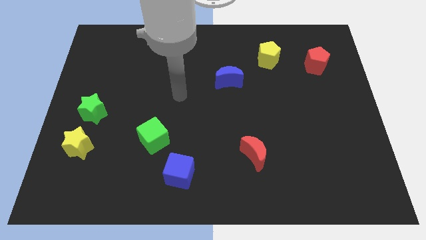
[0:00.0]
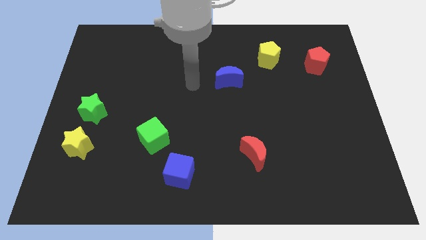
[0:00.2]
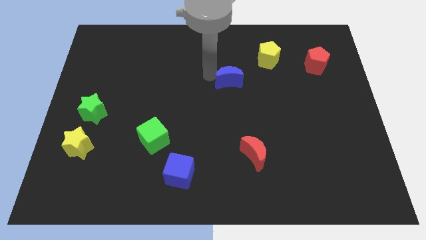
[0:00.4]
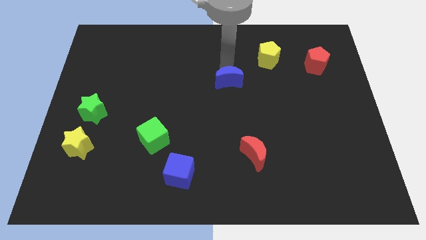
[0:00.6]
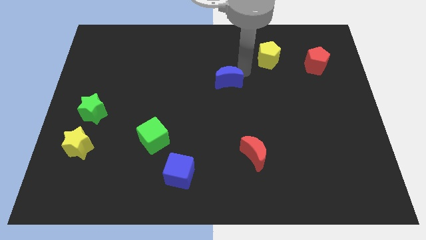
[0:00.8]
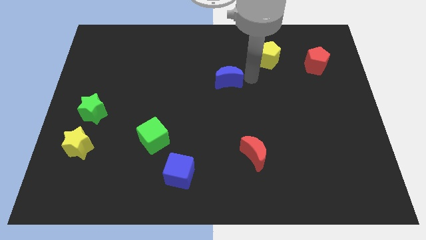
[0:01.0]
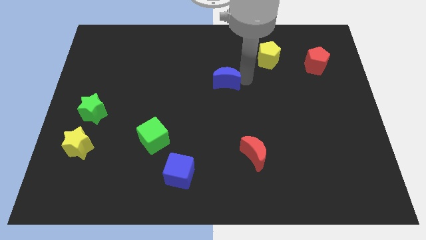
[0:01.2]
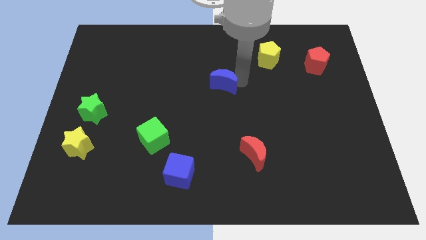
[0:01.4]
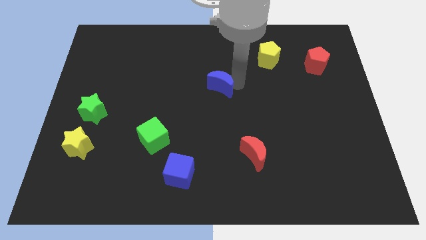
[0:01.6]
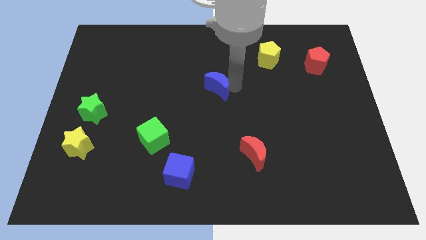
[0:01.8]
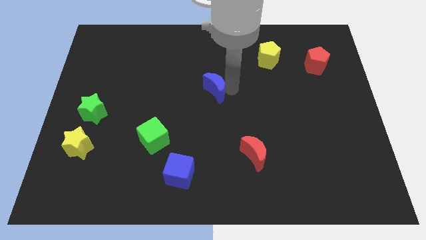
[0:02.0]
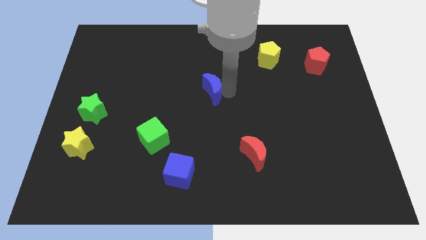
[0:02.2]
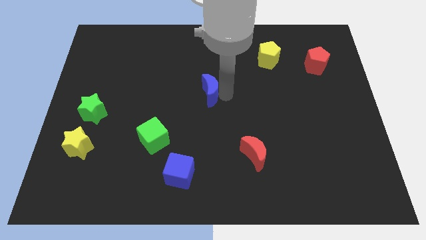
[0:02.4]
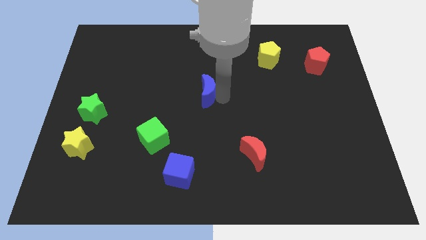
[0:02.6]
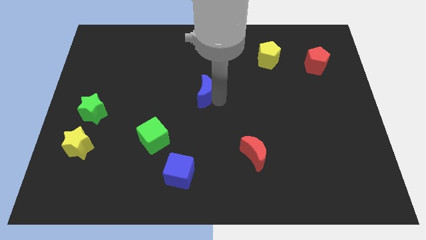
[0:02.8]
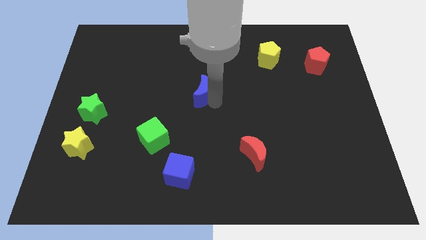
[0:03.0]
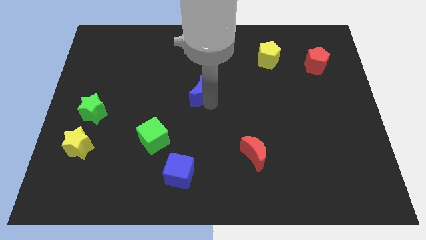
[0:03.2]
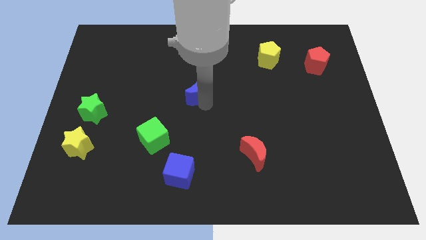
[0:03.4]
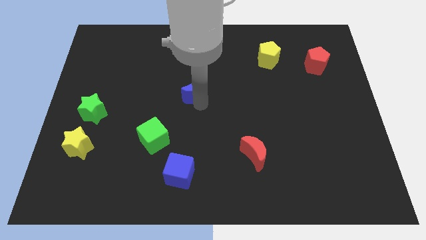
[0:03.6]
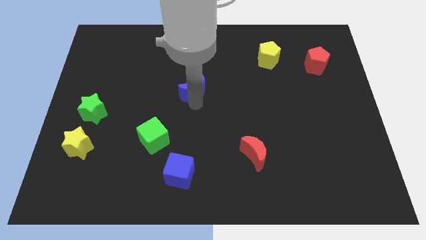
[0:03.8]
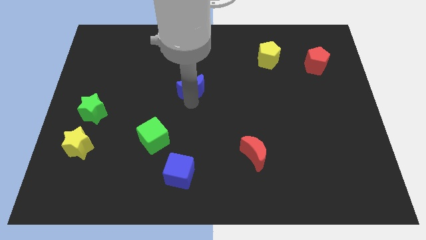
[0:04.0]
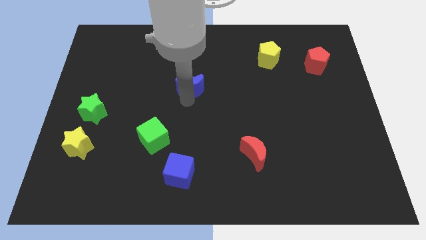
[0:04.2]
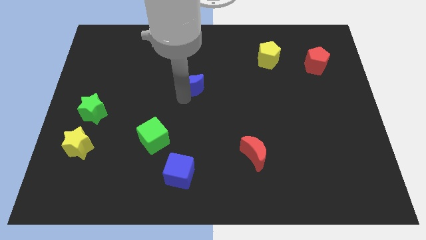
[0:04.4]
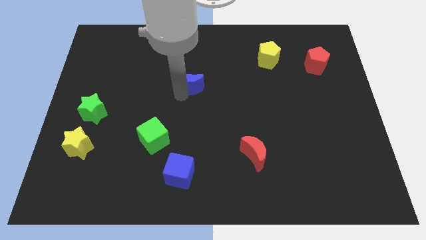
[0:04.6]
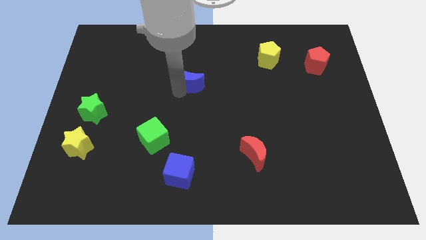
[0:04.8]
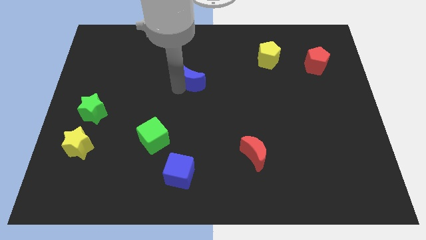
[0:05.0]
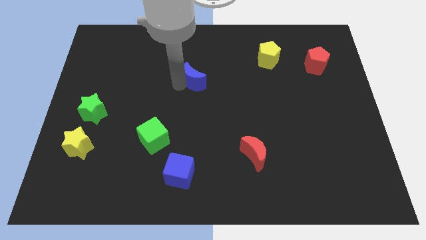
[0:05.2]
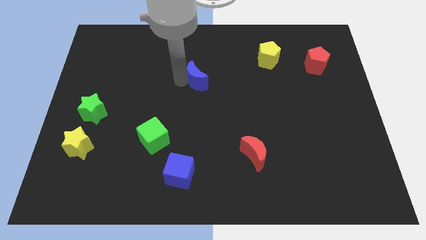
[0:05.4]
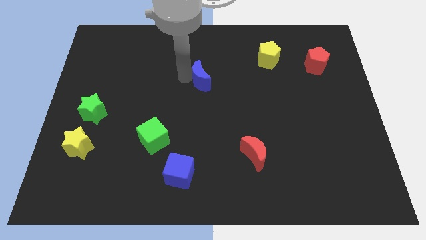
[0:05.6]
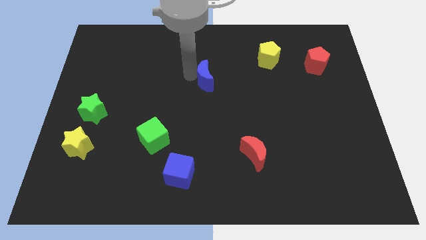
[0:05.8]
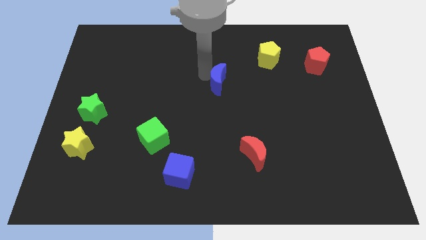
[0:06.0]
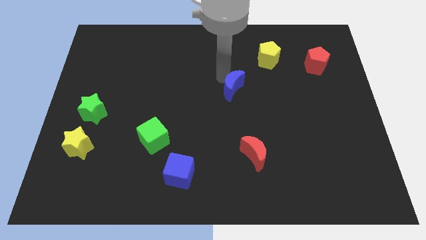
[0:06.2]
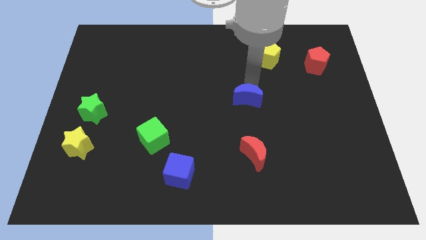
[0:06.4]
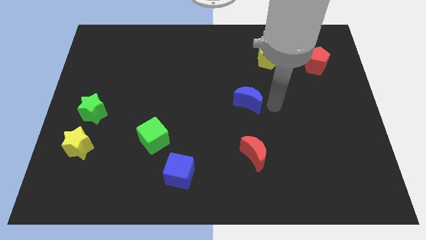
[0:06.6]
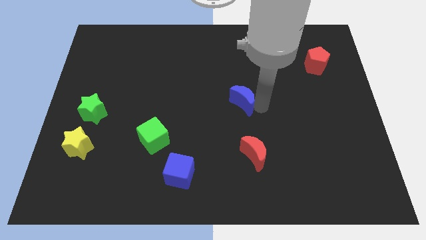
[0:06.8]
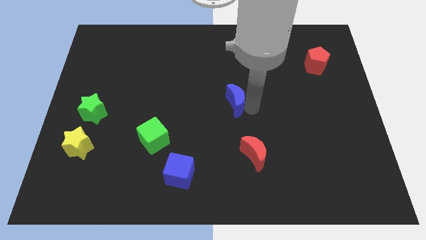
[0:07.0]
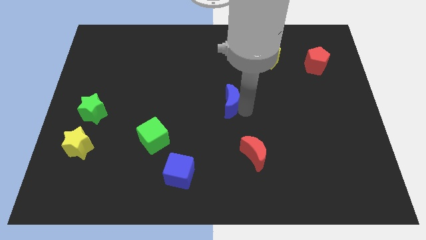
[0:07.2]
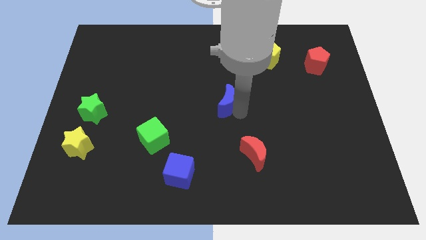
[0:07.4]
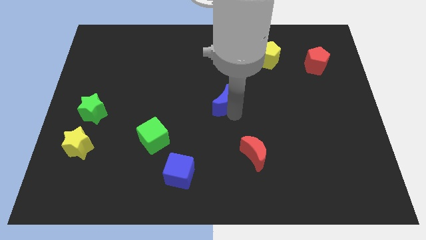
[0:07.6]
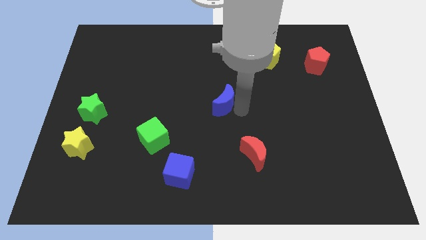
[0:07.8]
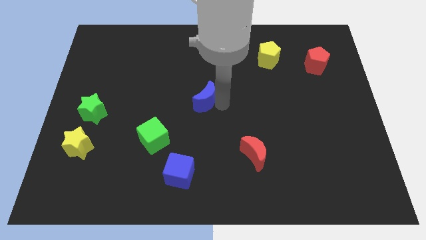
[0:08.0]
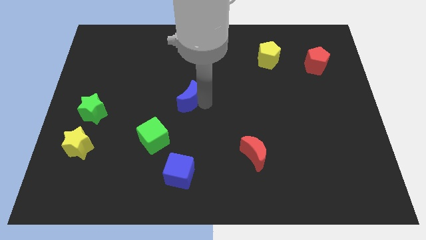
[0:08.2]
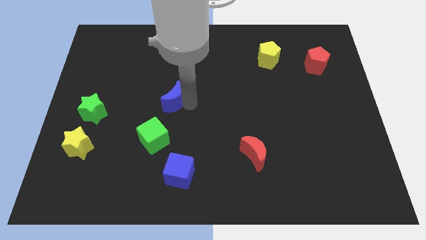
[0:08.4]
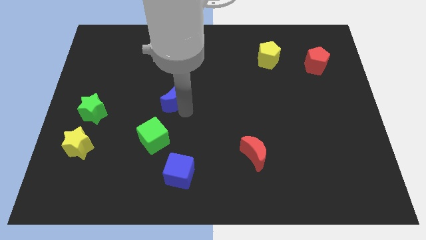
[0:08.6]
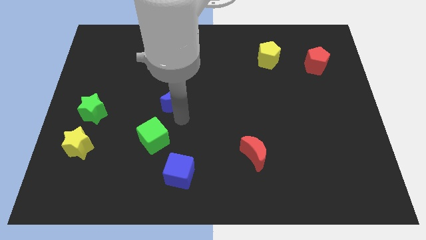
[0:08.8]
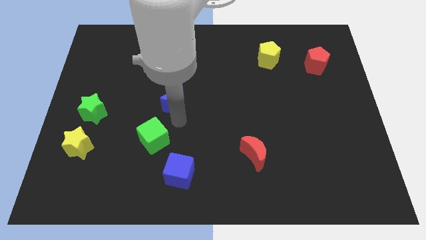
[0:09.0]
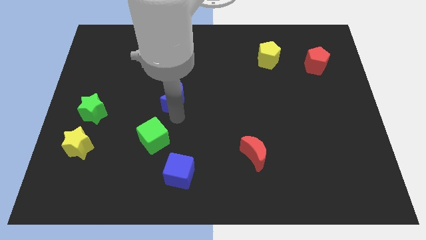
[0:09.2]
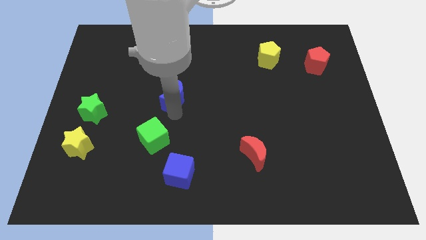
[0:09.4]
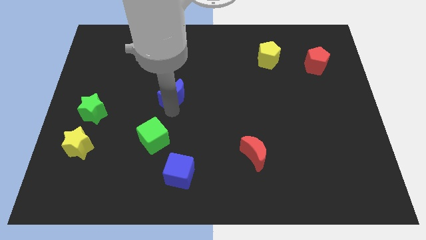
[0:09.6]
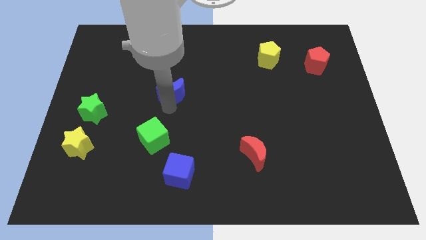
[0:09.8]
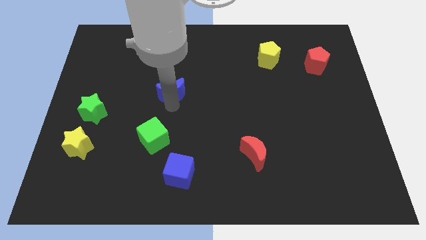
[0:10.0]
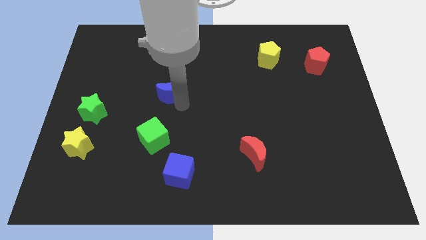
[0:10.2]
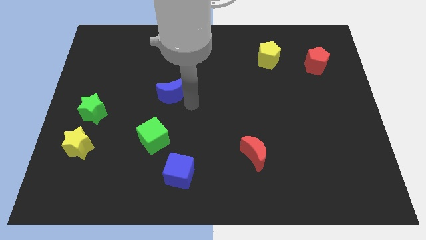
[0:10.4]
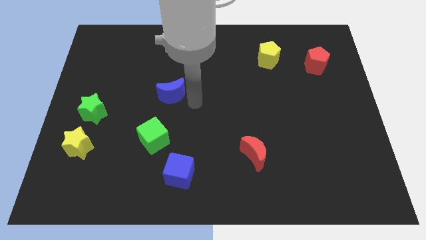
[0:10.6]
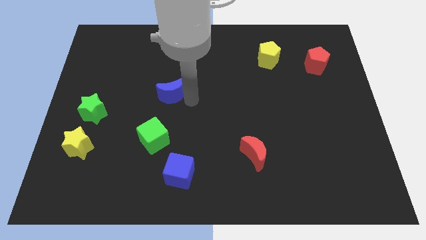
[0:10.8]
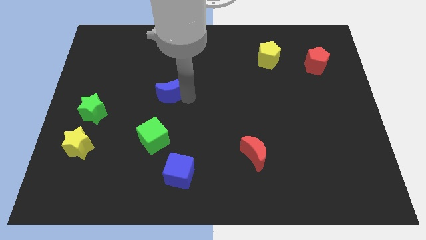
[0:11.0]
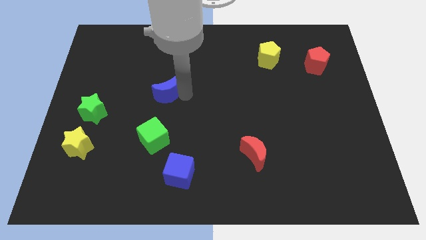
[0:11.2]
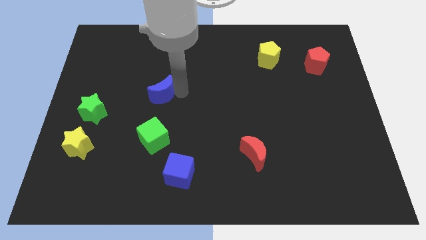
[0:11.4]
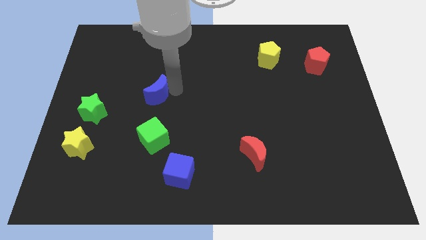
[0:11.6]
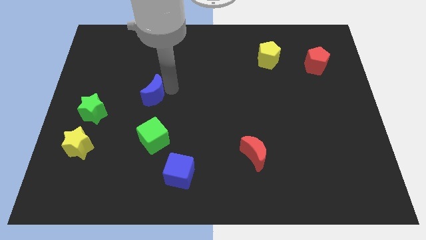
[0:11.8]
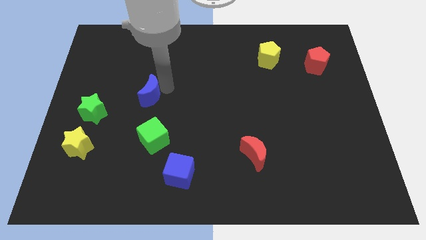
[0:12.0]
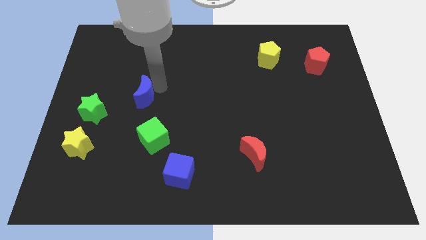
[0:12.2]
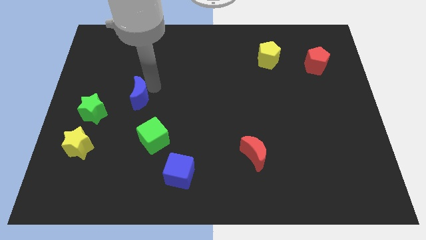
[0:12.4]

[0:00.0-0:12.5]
move the blue moon diagonally up and to the right of the green star

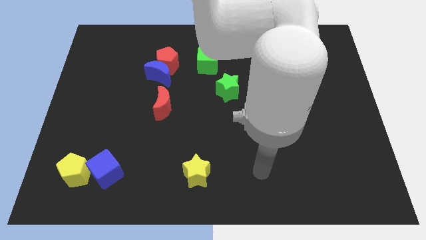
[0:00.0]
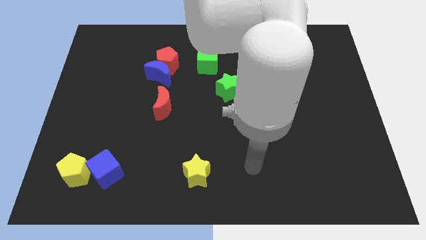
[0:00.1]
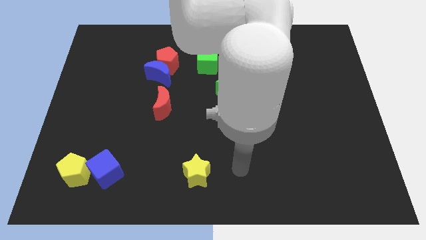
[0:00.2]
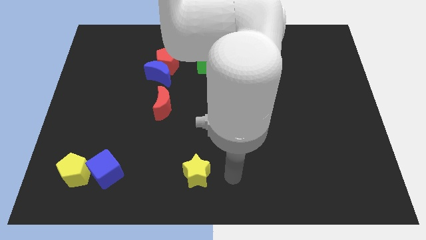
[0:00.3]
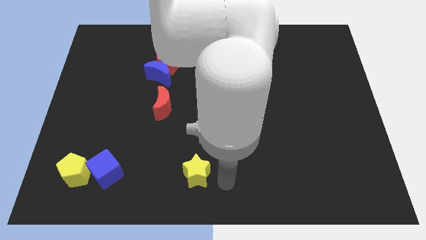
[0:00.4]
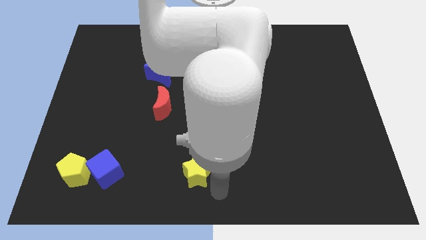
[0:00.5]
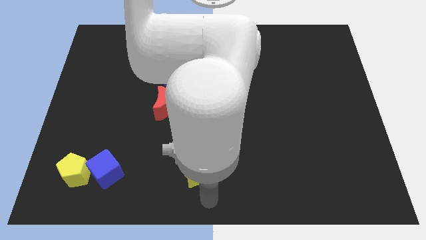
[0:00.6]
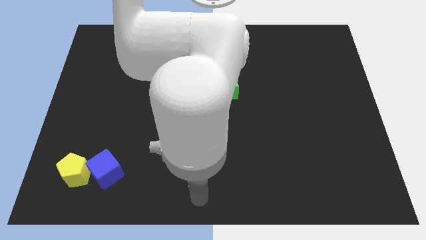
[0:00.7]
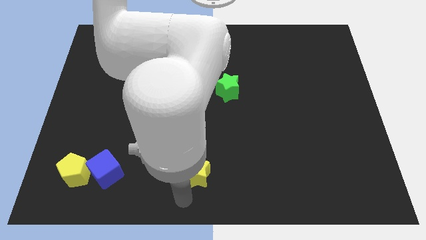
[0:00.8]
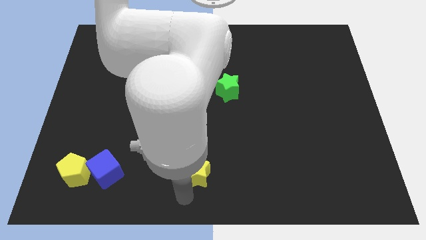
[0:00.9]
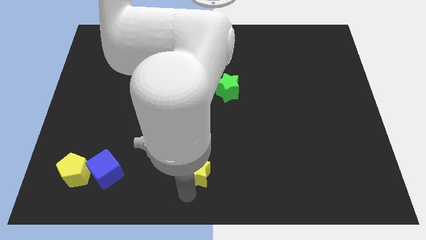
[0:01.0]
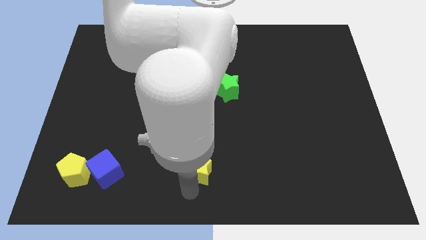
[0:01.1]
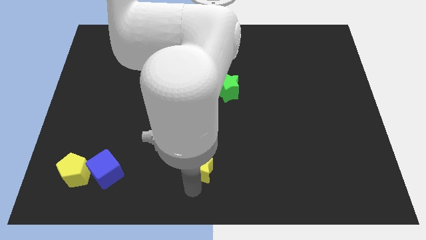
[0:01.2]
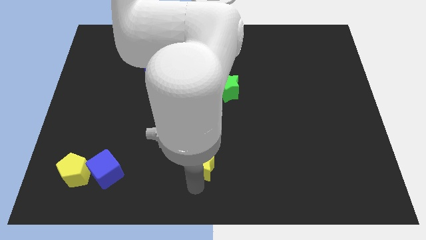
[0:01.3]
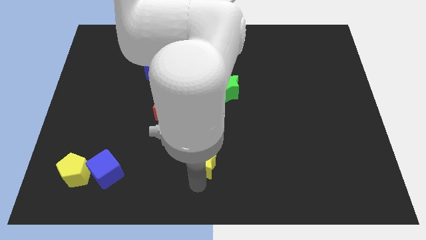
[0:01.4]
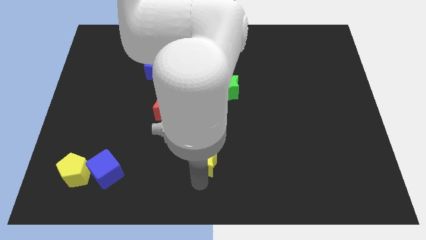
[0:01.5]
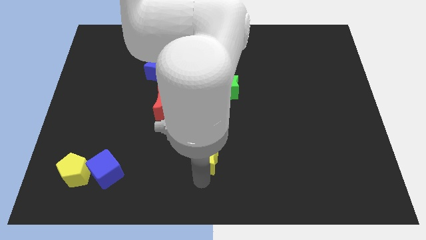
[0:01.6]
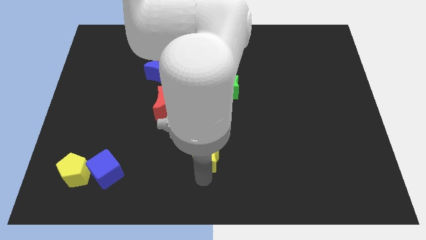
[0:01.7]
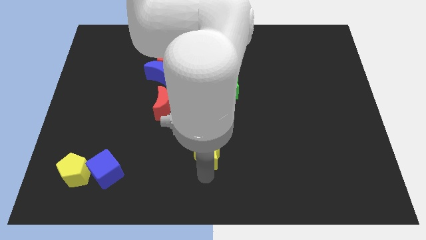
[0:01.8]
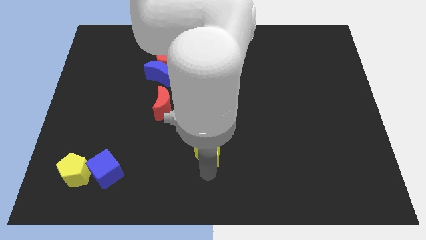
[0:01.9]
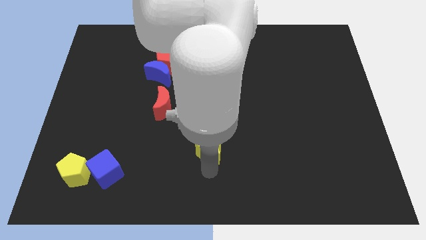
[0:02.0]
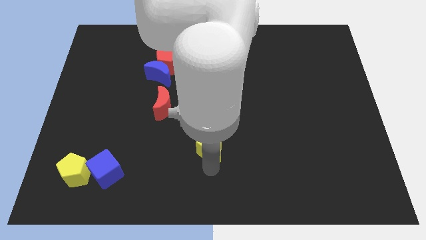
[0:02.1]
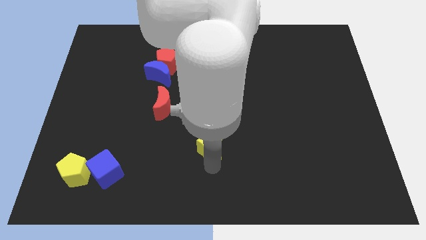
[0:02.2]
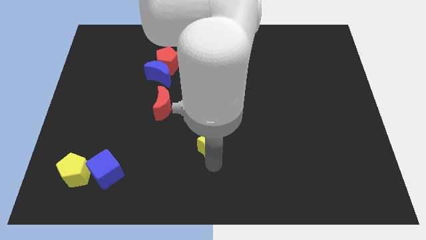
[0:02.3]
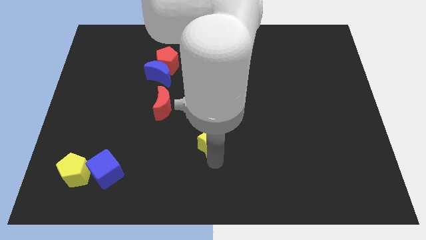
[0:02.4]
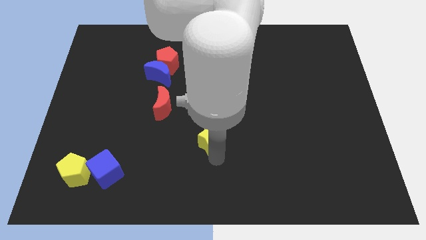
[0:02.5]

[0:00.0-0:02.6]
push the yellow star below the green star
